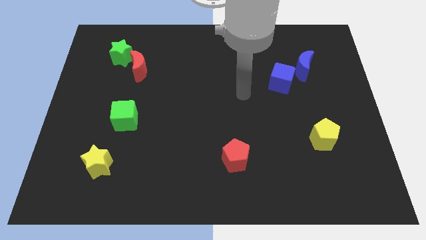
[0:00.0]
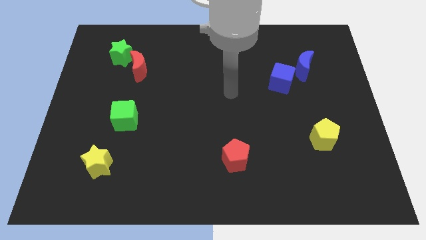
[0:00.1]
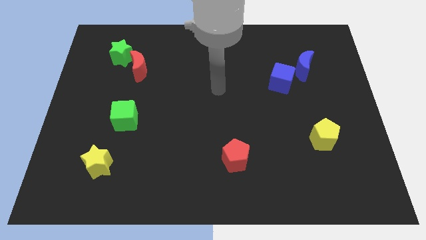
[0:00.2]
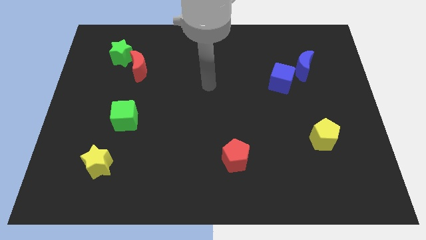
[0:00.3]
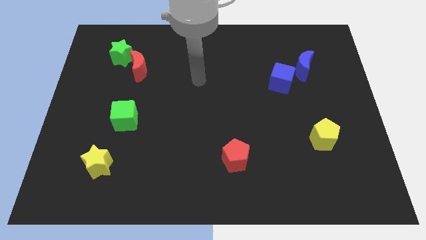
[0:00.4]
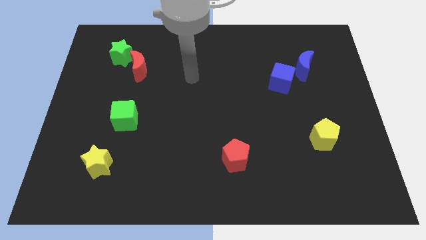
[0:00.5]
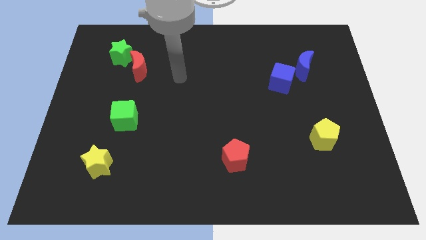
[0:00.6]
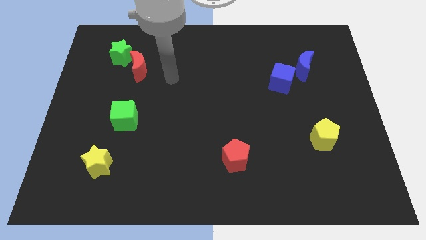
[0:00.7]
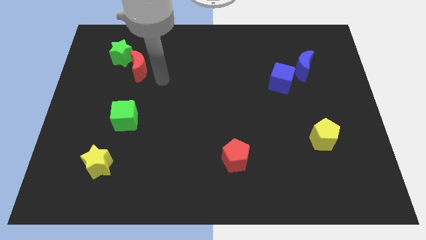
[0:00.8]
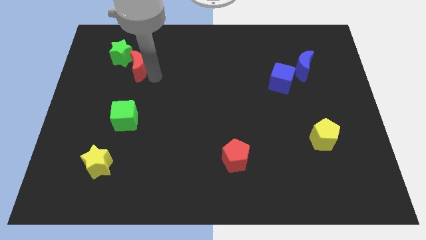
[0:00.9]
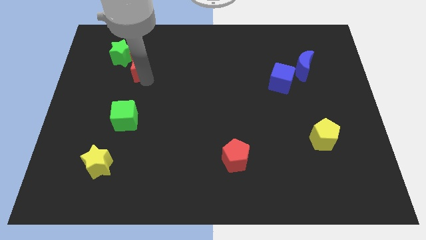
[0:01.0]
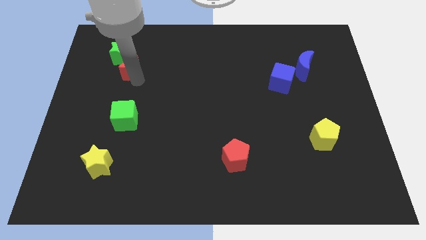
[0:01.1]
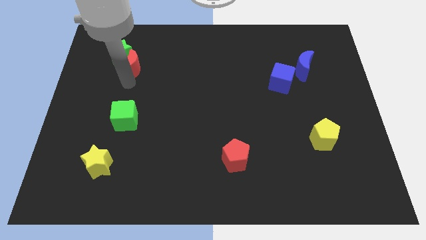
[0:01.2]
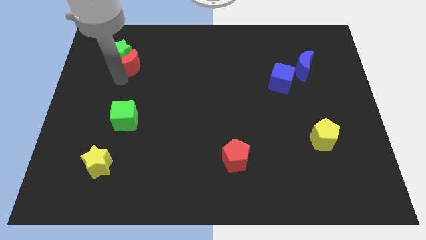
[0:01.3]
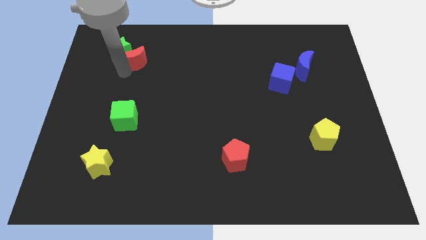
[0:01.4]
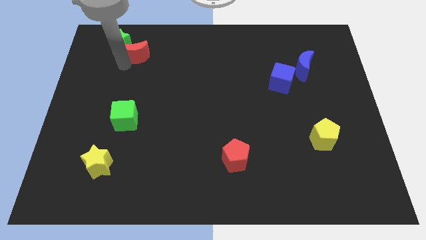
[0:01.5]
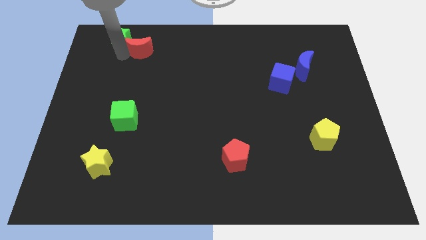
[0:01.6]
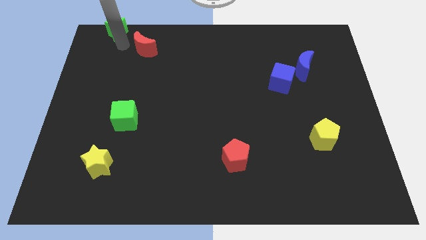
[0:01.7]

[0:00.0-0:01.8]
pull the red moon apart from the green star

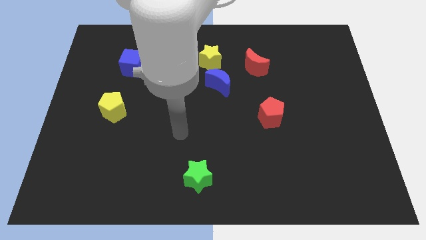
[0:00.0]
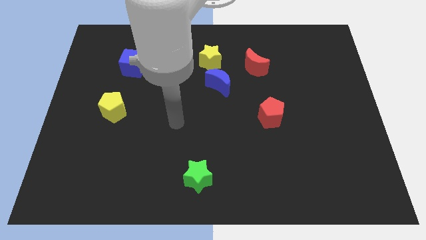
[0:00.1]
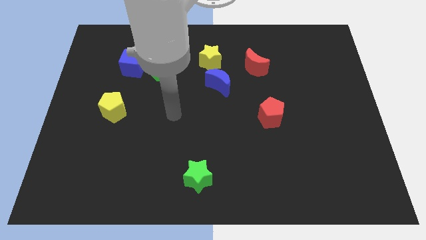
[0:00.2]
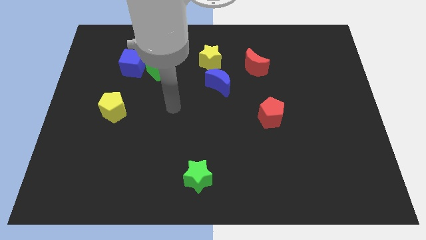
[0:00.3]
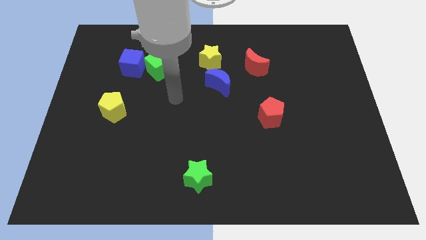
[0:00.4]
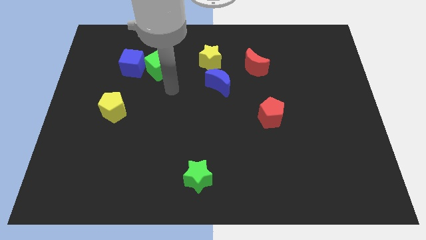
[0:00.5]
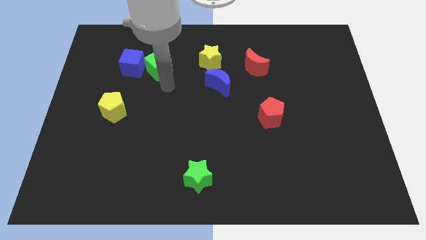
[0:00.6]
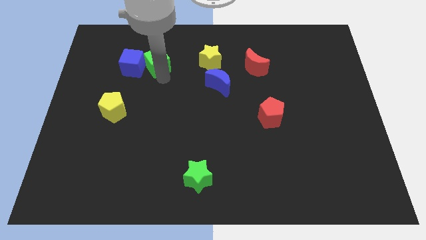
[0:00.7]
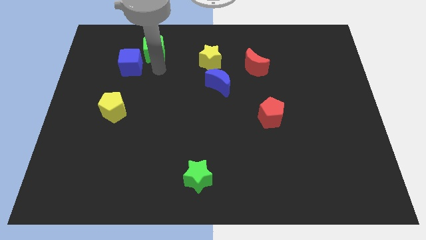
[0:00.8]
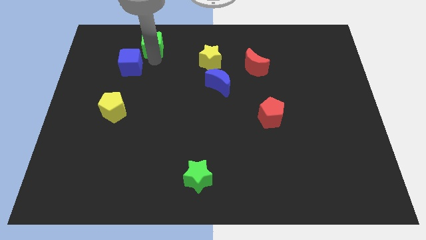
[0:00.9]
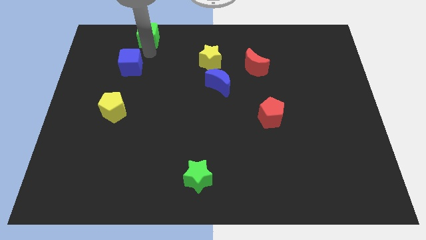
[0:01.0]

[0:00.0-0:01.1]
separate the blue cube from the green cube

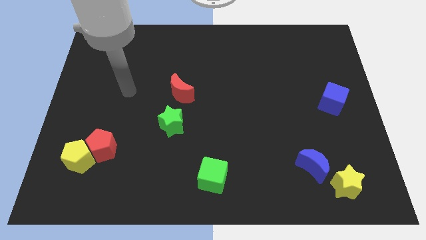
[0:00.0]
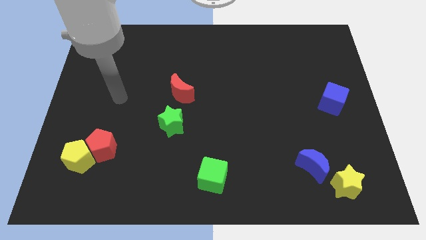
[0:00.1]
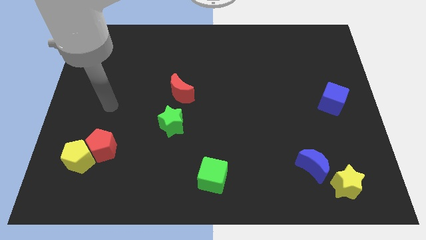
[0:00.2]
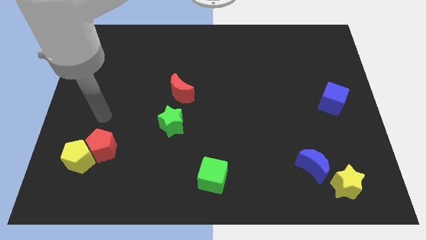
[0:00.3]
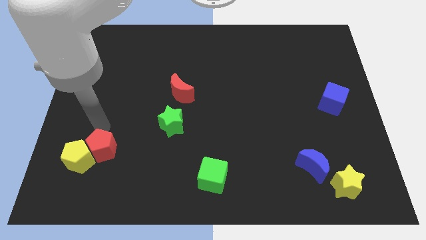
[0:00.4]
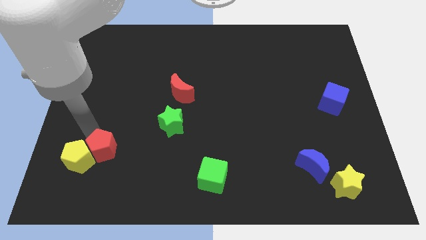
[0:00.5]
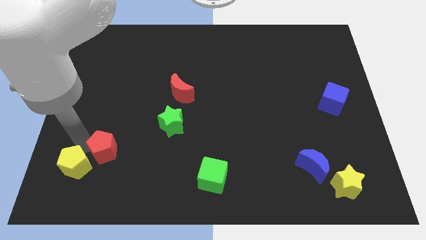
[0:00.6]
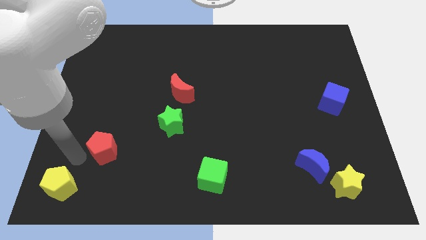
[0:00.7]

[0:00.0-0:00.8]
move the red pentagon away from the yellow pentagon

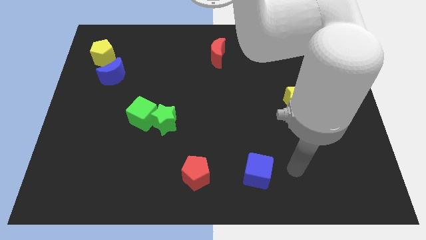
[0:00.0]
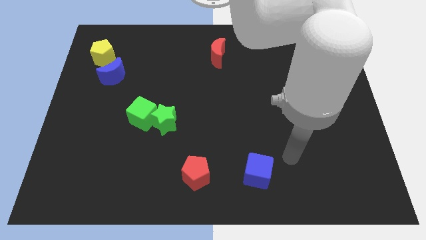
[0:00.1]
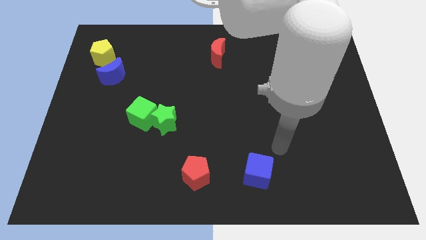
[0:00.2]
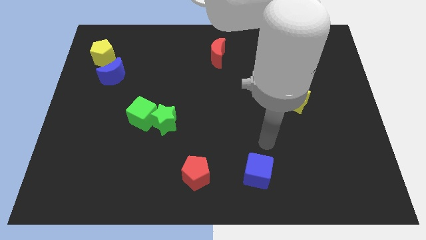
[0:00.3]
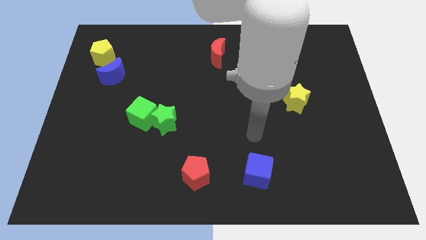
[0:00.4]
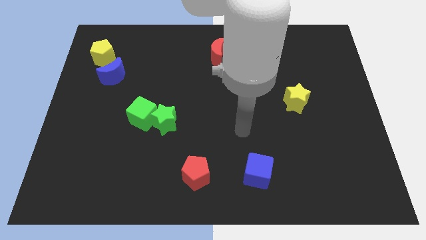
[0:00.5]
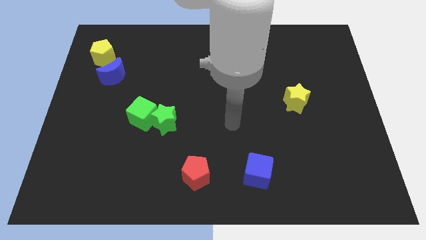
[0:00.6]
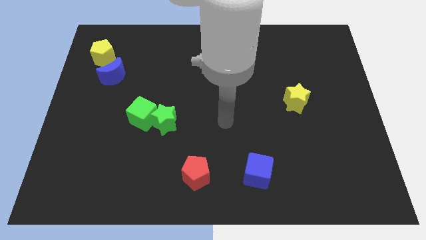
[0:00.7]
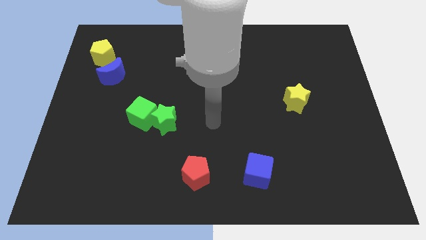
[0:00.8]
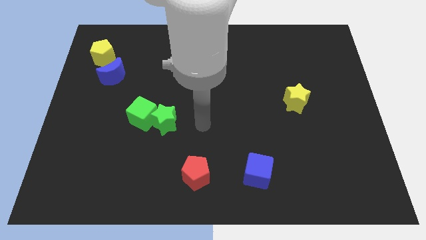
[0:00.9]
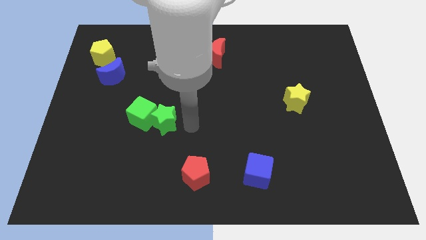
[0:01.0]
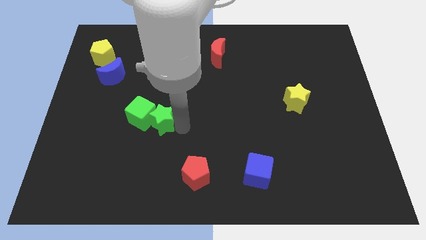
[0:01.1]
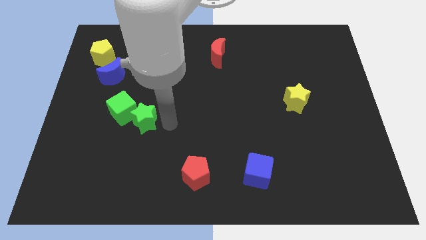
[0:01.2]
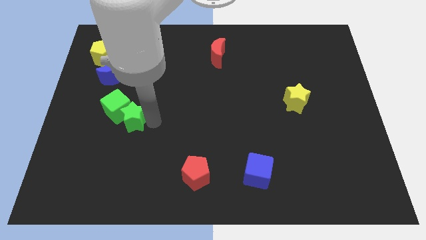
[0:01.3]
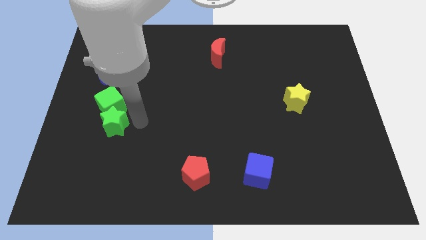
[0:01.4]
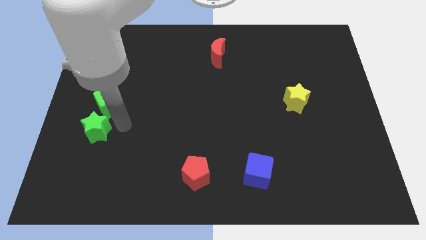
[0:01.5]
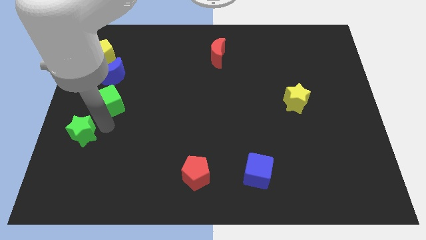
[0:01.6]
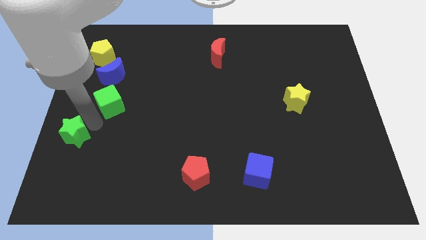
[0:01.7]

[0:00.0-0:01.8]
move the green cube away from the green star

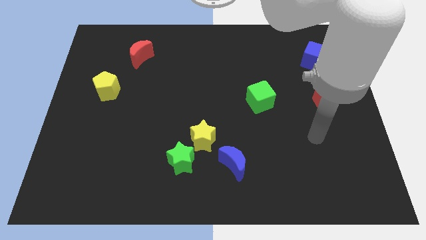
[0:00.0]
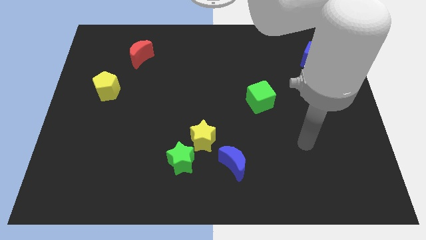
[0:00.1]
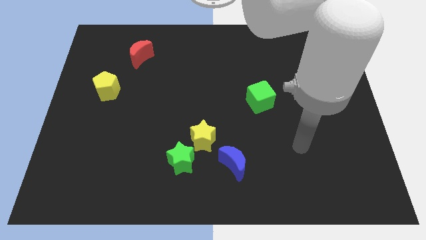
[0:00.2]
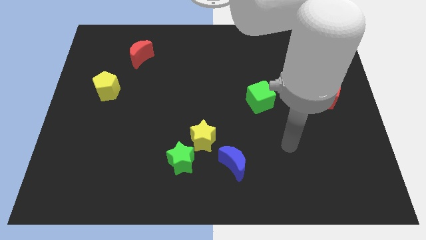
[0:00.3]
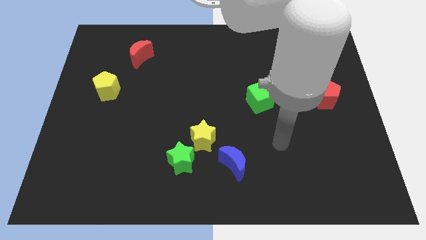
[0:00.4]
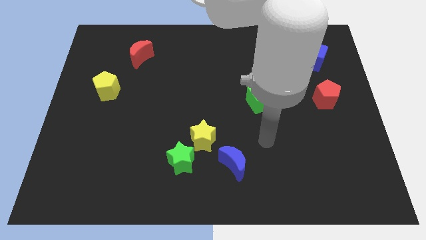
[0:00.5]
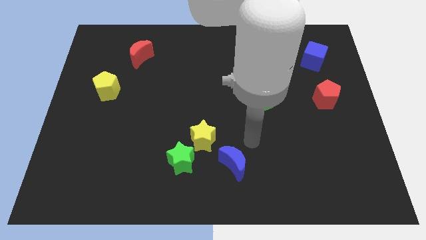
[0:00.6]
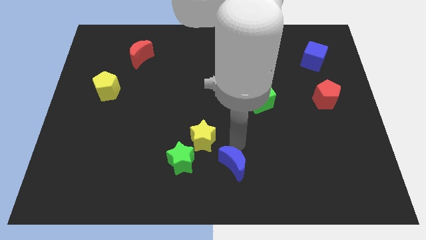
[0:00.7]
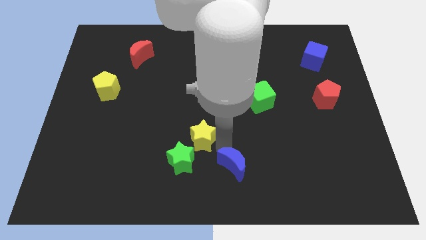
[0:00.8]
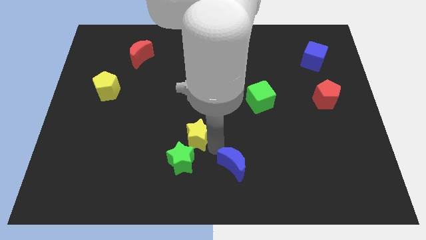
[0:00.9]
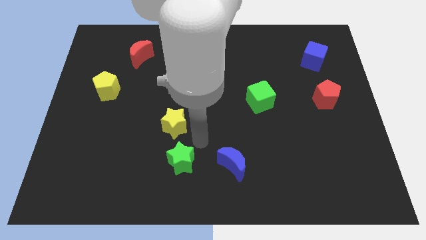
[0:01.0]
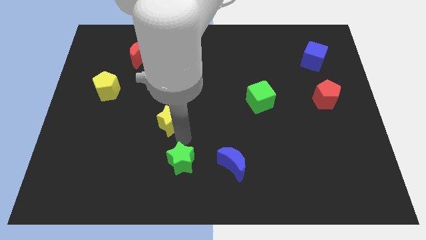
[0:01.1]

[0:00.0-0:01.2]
separate the green star from the yellow star

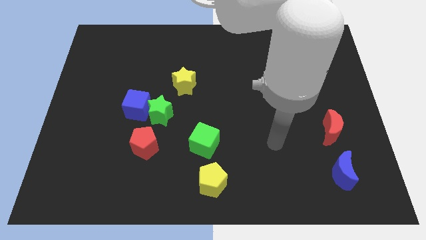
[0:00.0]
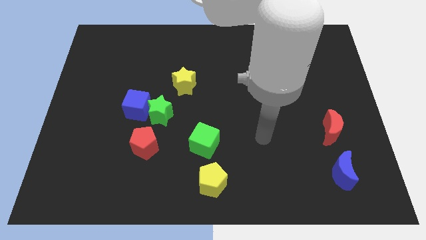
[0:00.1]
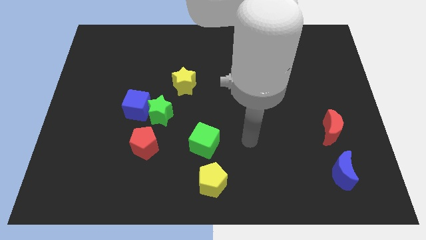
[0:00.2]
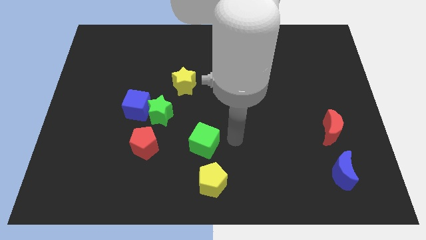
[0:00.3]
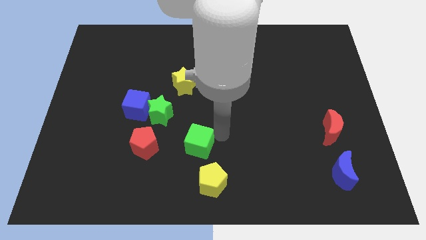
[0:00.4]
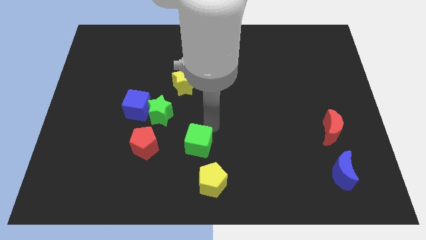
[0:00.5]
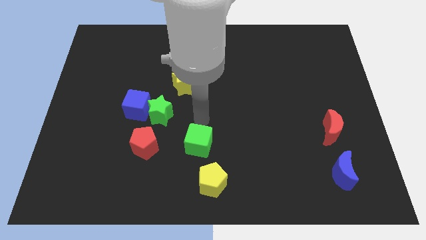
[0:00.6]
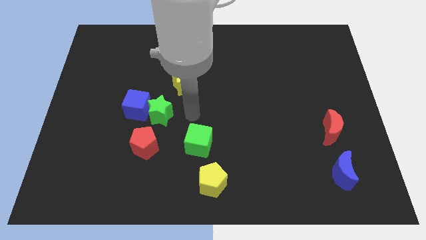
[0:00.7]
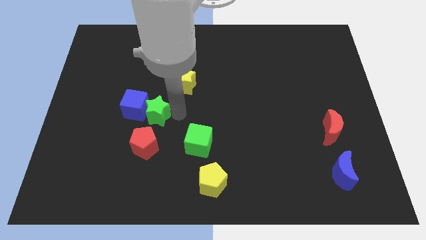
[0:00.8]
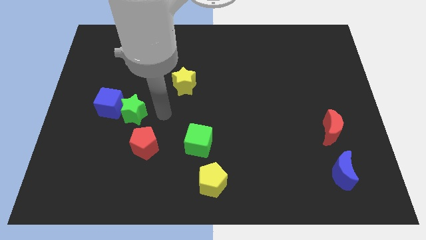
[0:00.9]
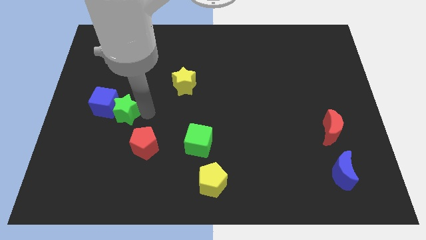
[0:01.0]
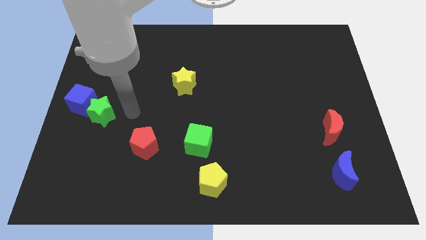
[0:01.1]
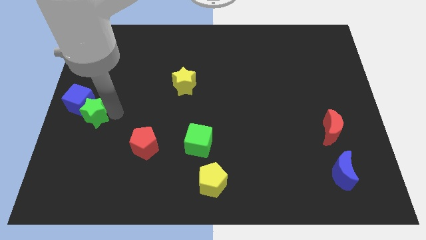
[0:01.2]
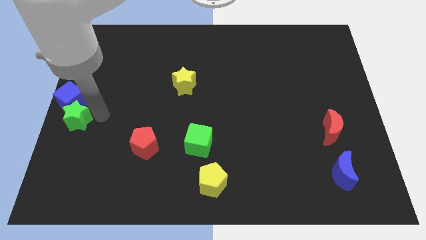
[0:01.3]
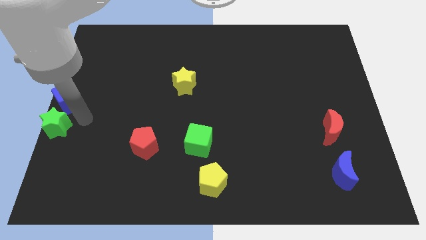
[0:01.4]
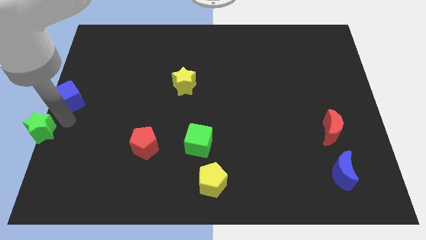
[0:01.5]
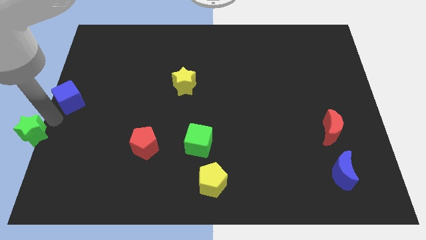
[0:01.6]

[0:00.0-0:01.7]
separate the blue cube from the green star

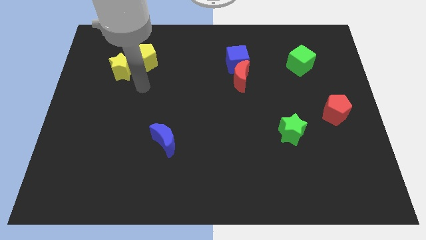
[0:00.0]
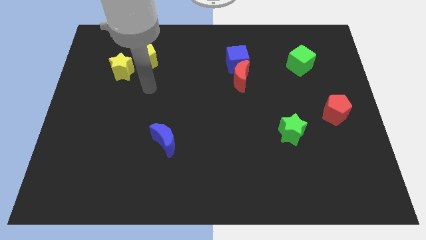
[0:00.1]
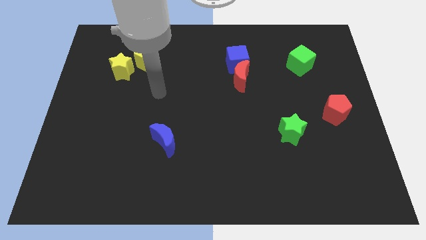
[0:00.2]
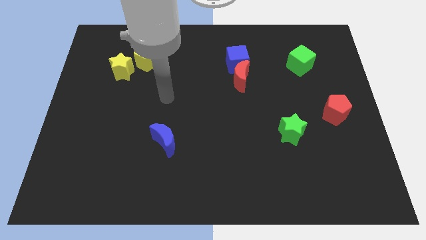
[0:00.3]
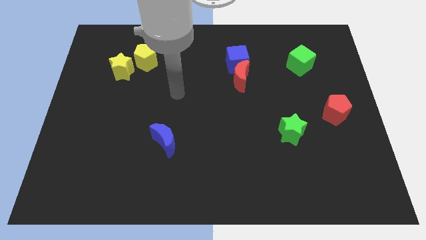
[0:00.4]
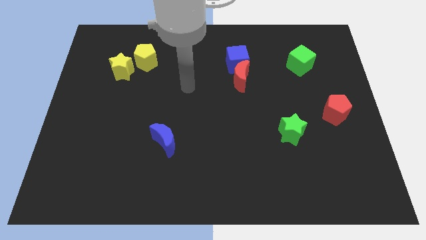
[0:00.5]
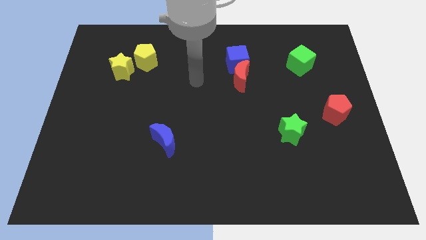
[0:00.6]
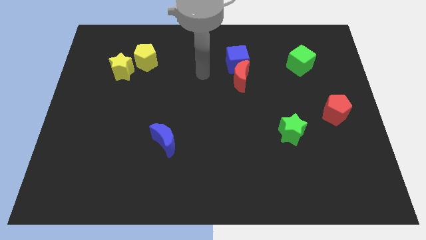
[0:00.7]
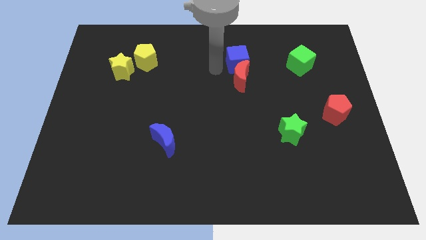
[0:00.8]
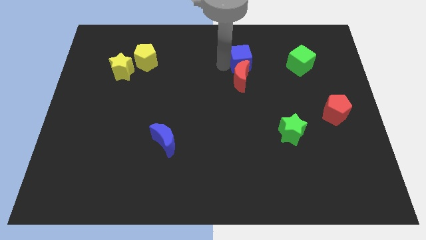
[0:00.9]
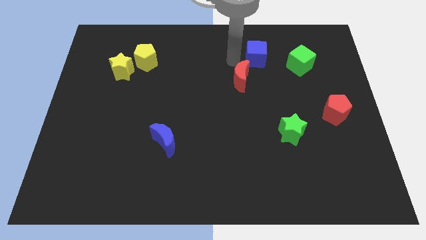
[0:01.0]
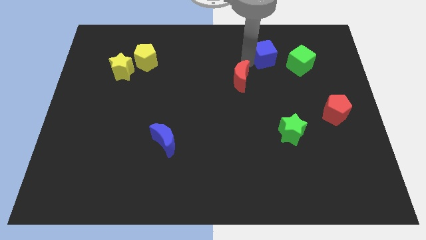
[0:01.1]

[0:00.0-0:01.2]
pull the red moon apart from the blue cube
